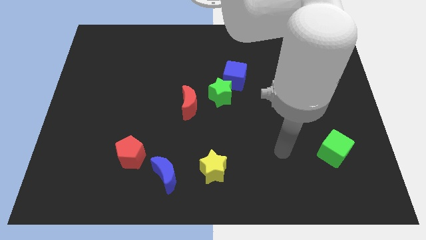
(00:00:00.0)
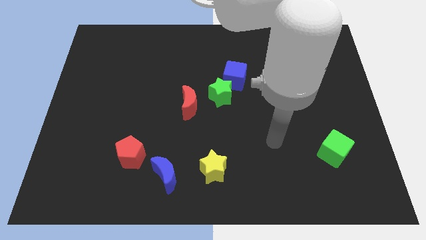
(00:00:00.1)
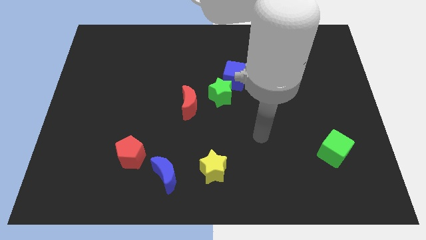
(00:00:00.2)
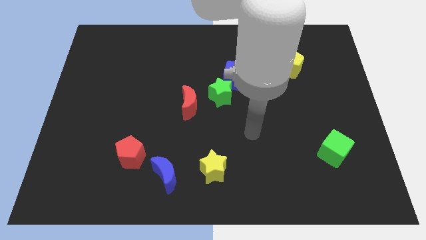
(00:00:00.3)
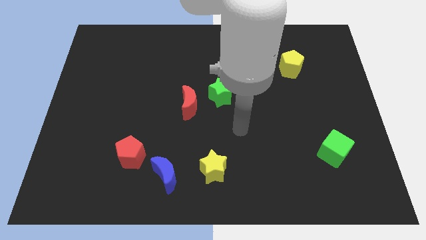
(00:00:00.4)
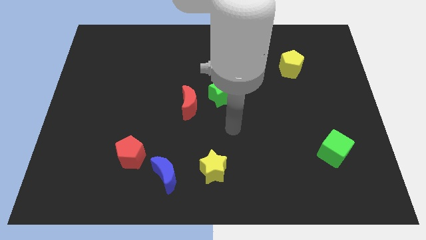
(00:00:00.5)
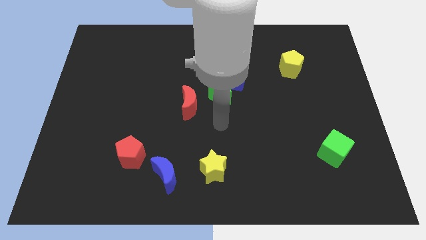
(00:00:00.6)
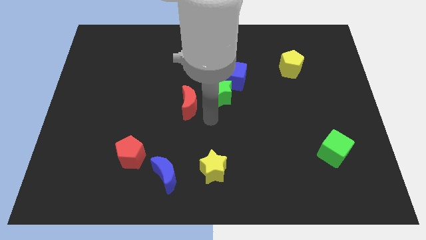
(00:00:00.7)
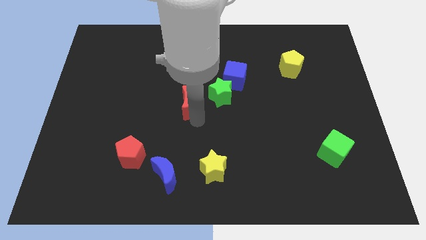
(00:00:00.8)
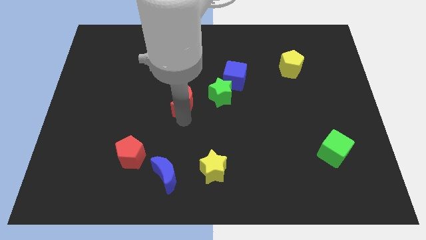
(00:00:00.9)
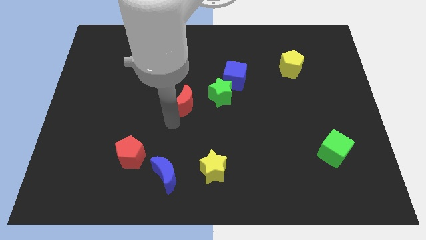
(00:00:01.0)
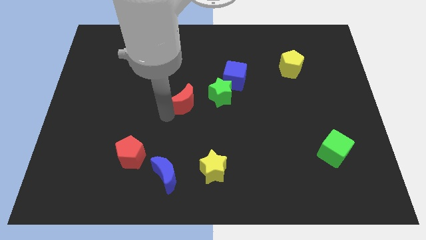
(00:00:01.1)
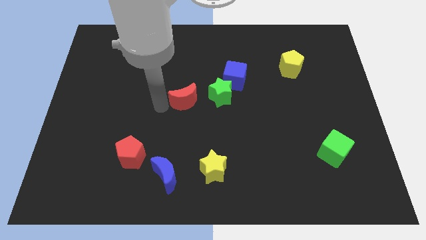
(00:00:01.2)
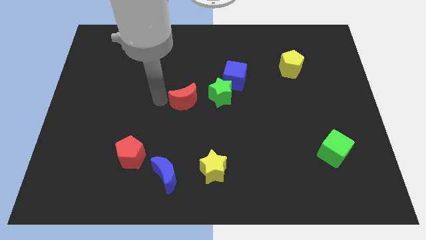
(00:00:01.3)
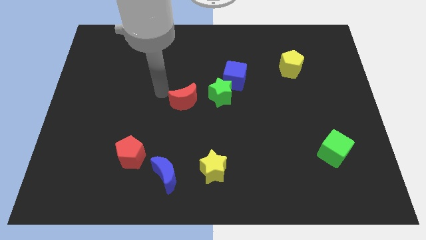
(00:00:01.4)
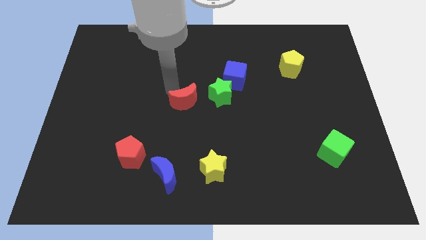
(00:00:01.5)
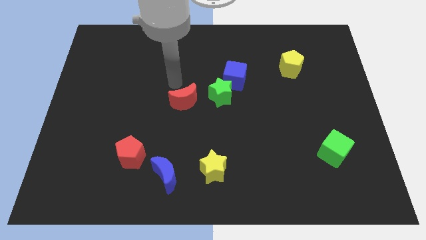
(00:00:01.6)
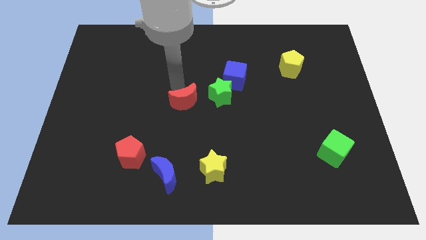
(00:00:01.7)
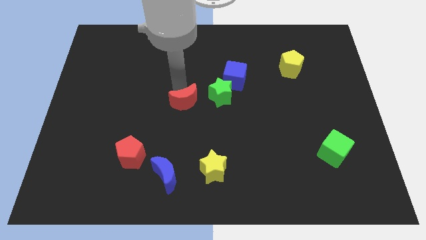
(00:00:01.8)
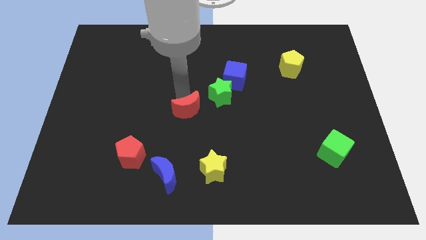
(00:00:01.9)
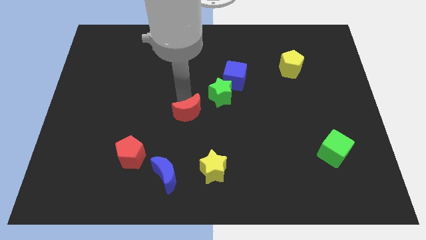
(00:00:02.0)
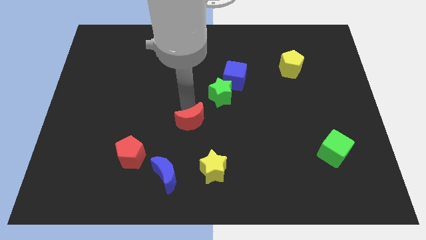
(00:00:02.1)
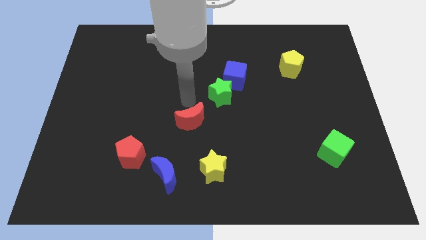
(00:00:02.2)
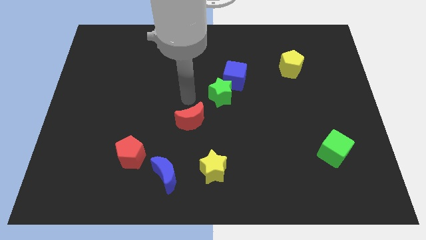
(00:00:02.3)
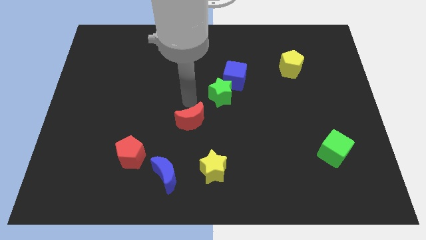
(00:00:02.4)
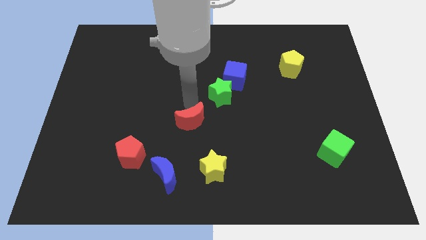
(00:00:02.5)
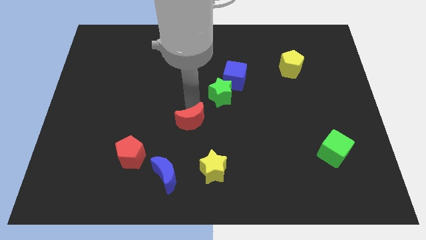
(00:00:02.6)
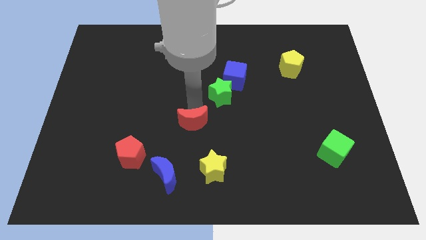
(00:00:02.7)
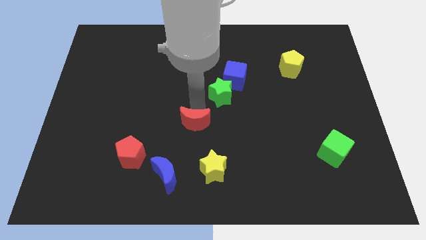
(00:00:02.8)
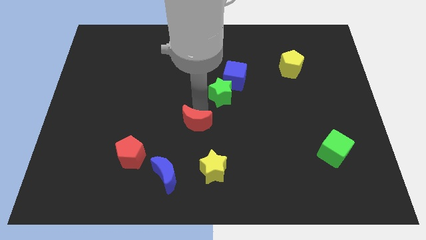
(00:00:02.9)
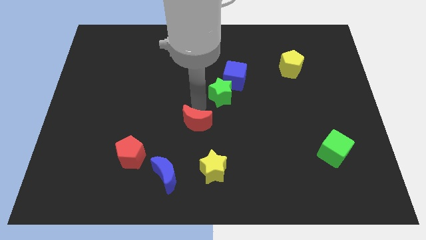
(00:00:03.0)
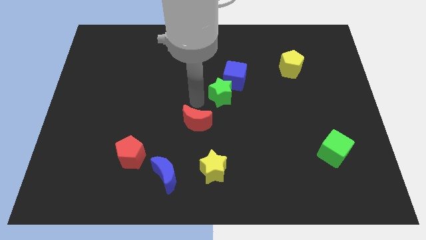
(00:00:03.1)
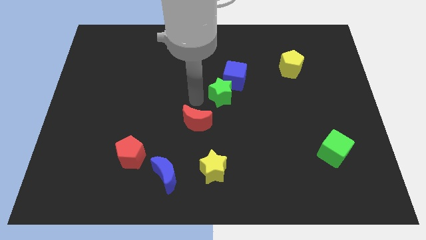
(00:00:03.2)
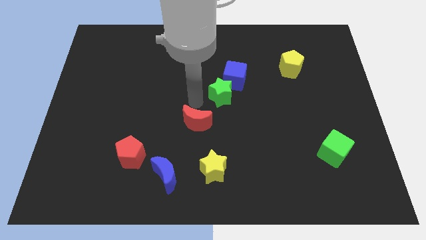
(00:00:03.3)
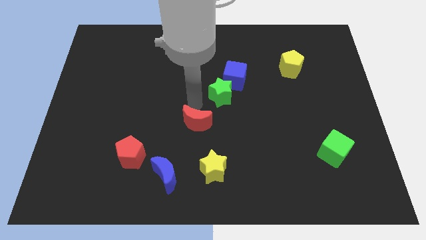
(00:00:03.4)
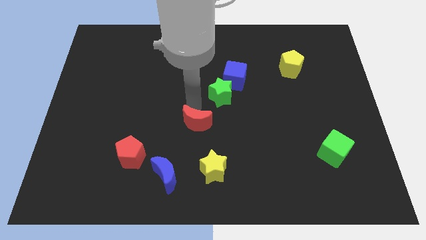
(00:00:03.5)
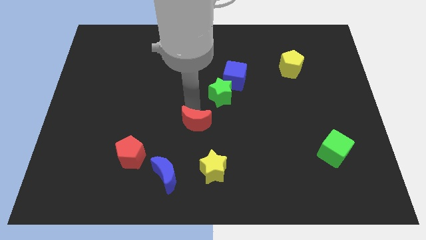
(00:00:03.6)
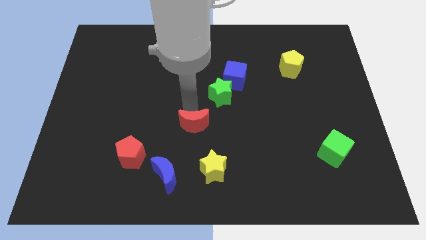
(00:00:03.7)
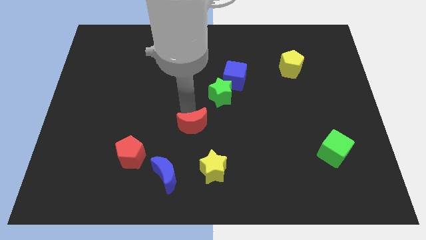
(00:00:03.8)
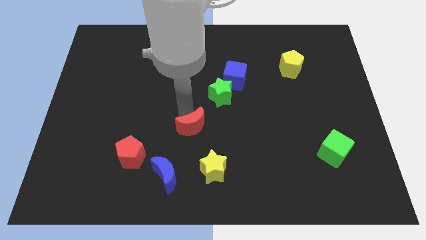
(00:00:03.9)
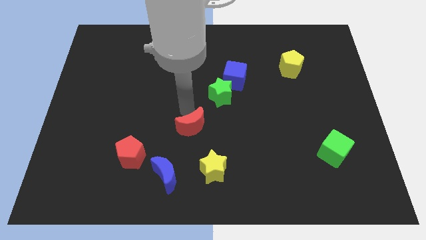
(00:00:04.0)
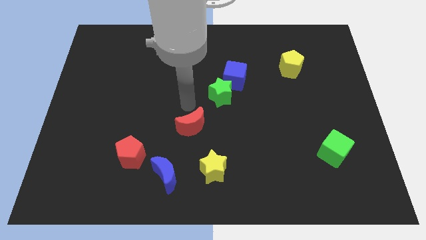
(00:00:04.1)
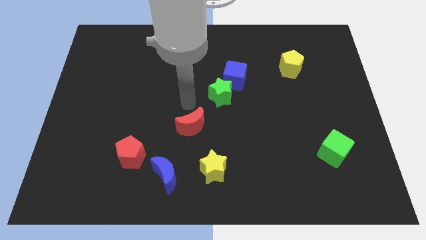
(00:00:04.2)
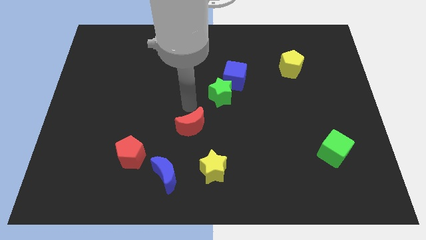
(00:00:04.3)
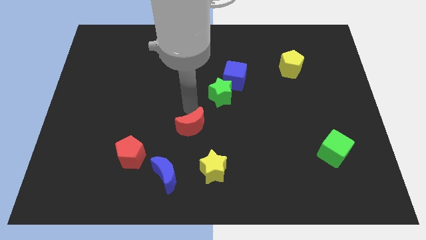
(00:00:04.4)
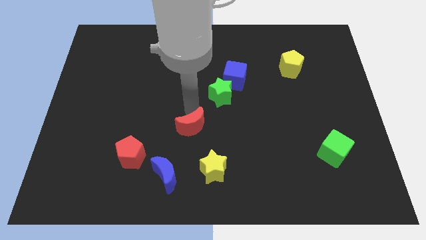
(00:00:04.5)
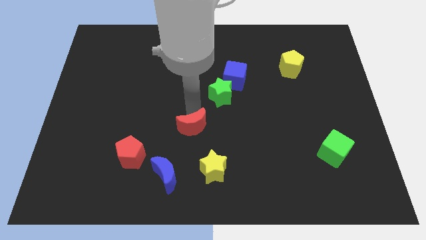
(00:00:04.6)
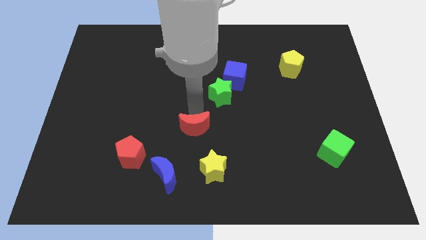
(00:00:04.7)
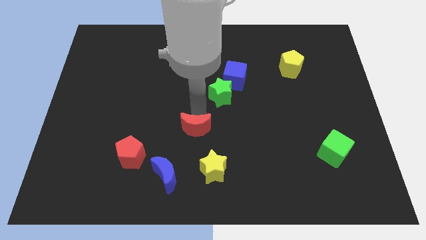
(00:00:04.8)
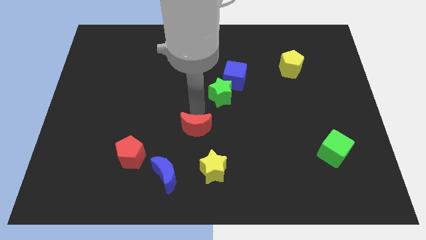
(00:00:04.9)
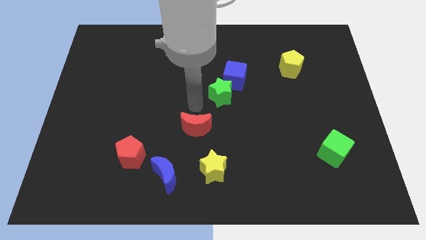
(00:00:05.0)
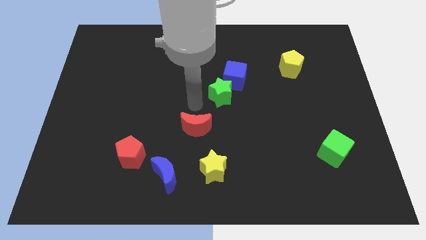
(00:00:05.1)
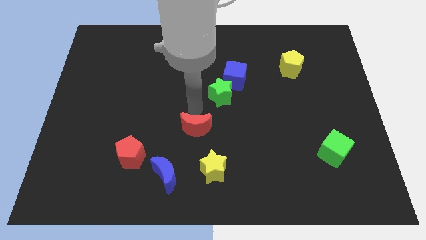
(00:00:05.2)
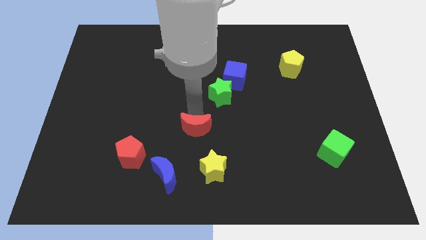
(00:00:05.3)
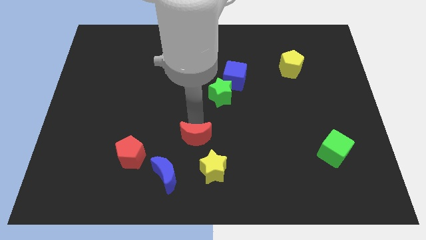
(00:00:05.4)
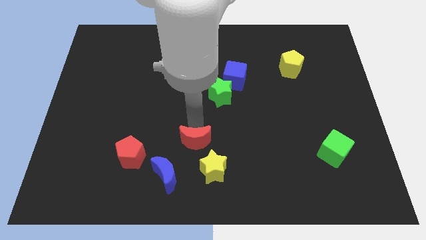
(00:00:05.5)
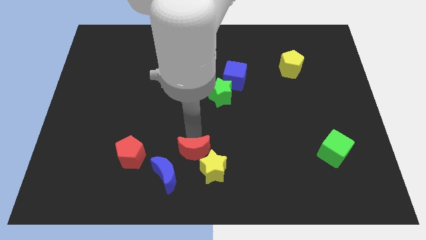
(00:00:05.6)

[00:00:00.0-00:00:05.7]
push the red moon to the yellow star

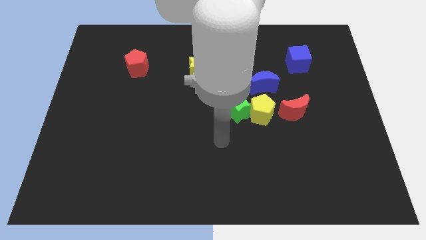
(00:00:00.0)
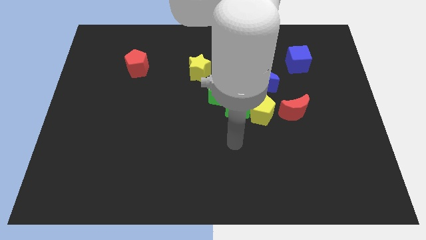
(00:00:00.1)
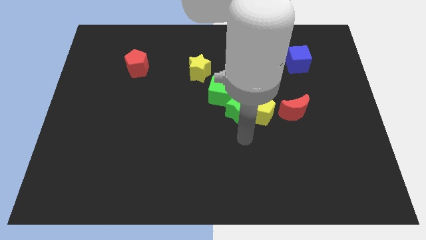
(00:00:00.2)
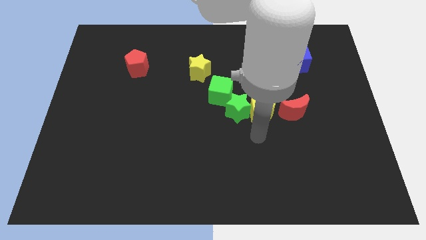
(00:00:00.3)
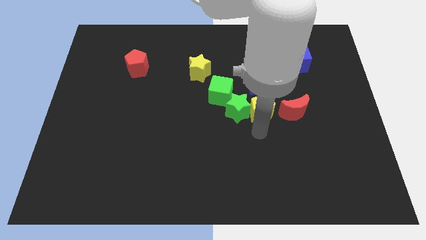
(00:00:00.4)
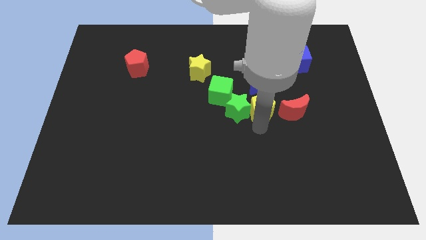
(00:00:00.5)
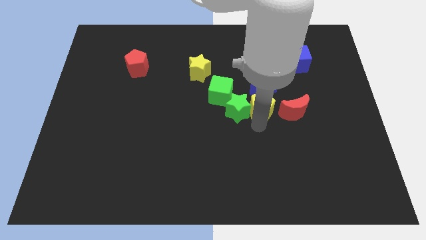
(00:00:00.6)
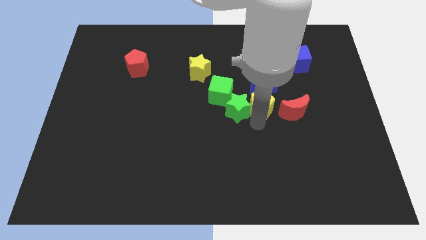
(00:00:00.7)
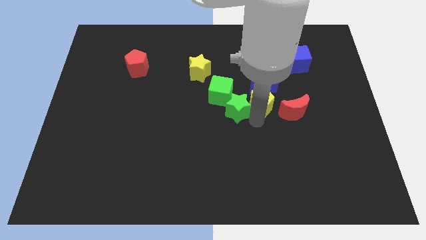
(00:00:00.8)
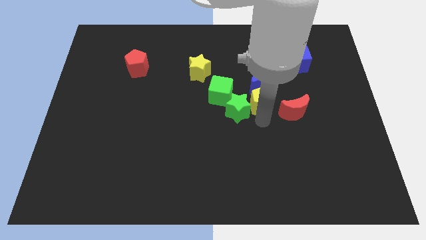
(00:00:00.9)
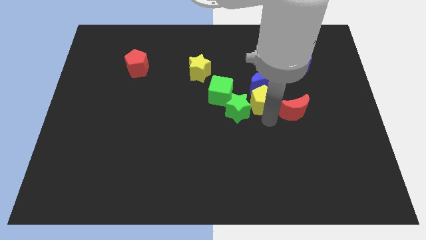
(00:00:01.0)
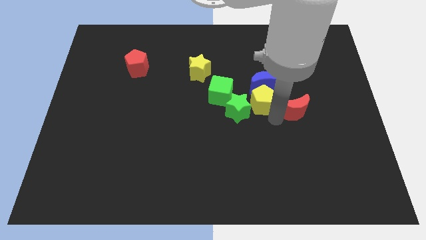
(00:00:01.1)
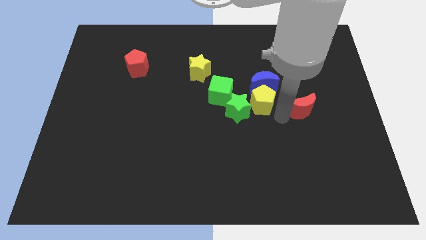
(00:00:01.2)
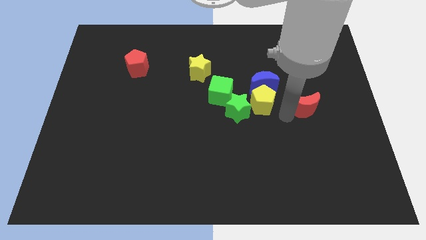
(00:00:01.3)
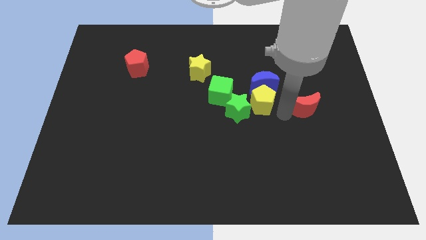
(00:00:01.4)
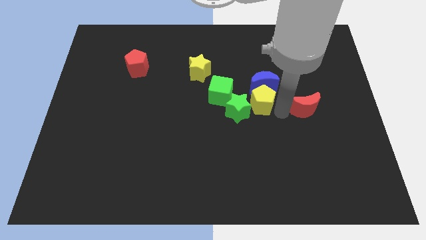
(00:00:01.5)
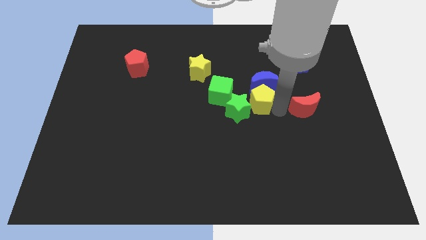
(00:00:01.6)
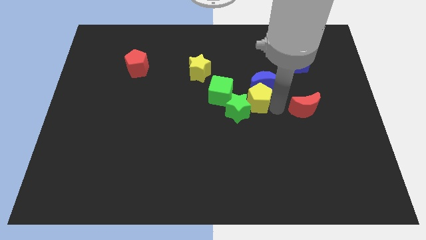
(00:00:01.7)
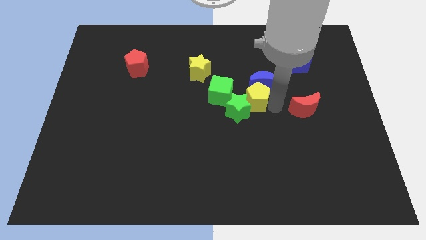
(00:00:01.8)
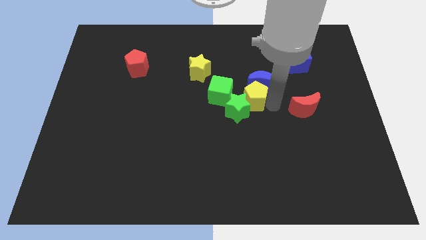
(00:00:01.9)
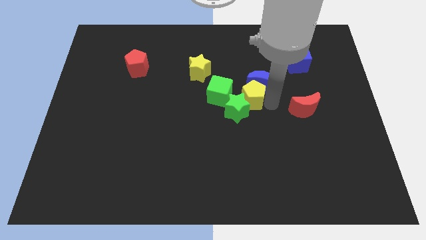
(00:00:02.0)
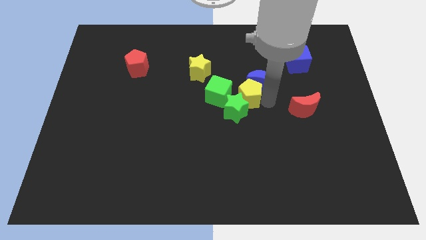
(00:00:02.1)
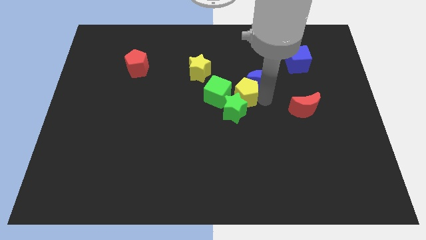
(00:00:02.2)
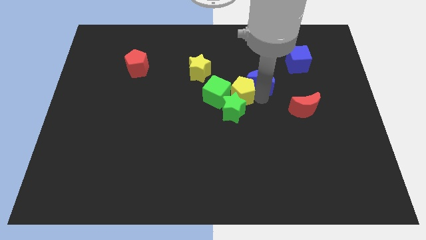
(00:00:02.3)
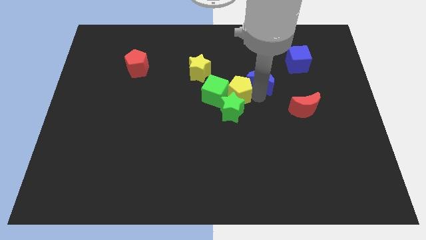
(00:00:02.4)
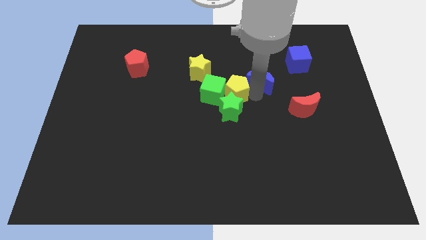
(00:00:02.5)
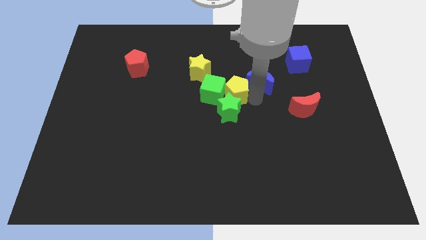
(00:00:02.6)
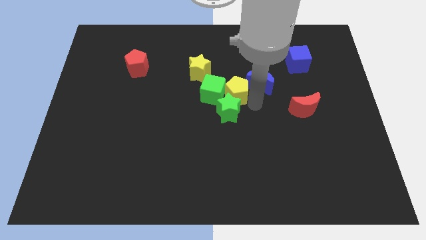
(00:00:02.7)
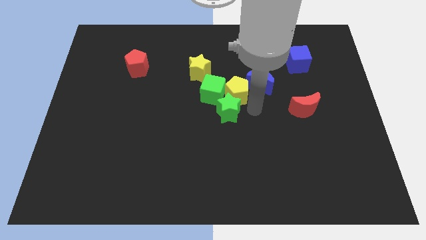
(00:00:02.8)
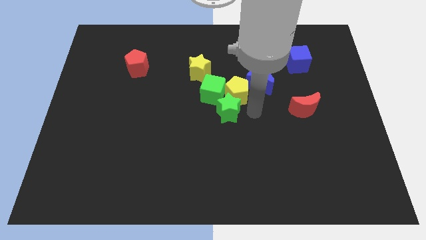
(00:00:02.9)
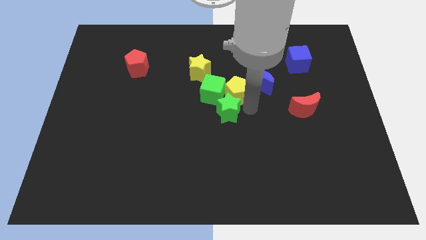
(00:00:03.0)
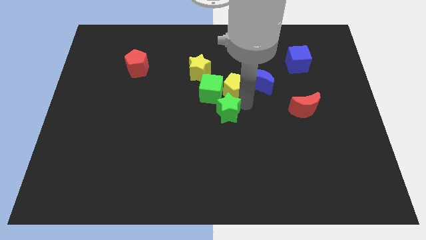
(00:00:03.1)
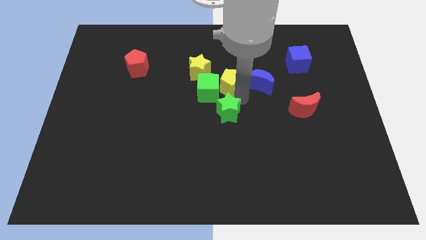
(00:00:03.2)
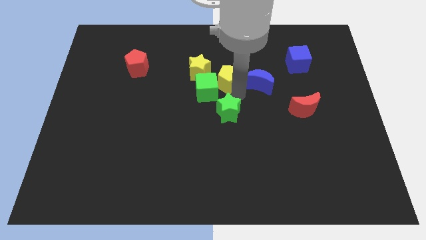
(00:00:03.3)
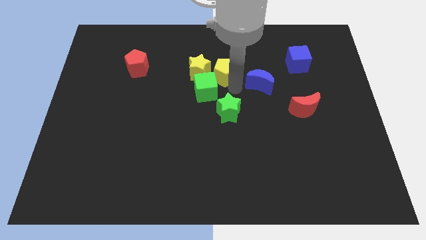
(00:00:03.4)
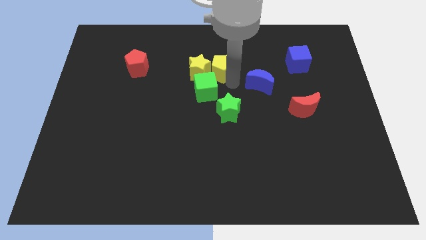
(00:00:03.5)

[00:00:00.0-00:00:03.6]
slide the yellow pentagon towards the yellow star
